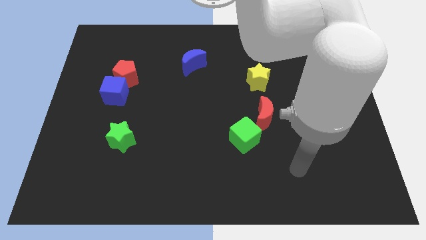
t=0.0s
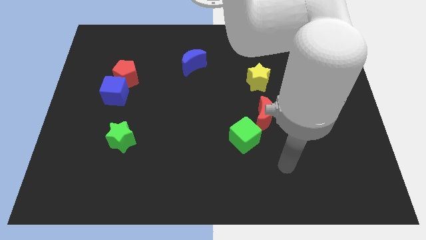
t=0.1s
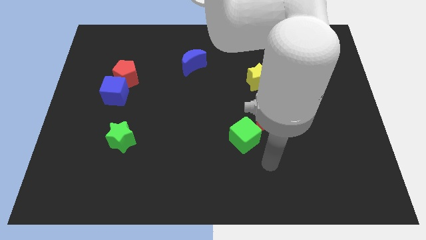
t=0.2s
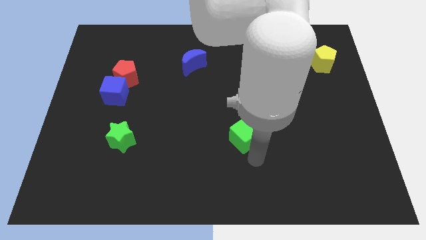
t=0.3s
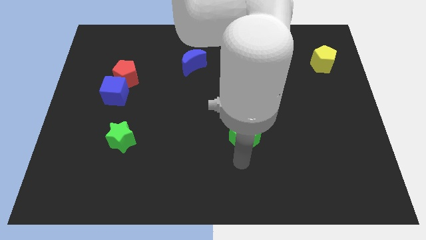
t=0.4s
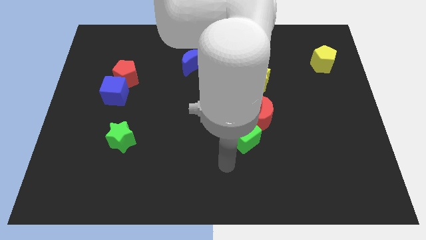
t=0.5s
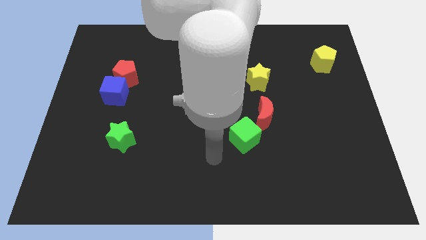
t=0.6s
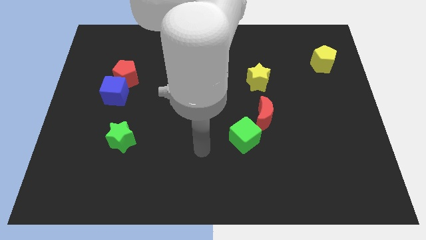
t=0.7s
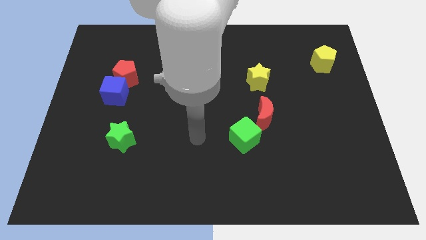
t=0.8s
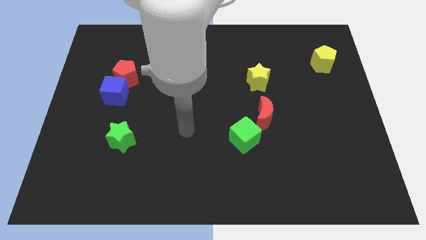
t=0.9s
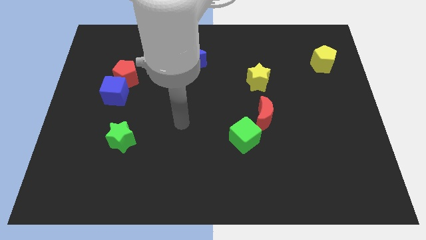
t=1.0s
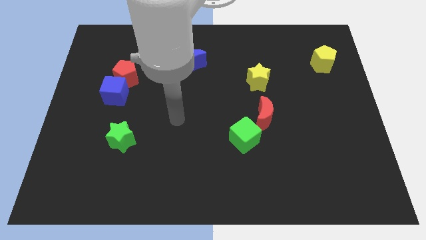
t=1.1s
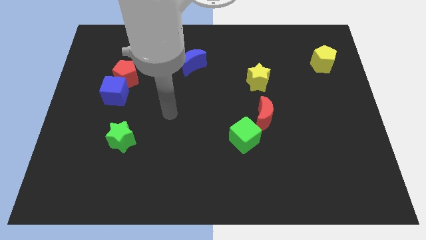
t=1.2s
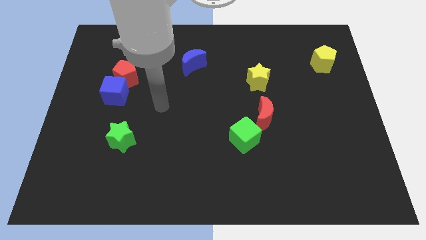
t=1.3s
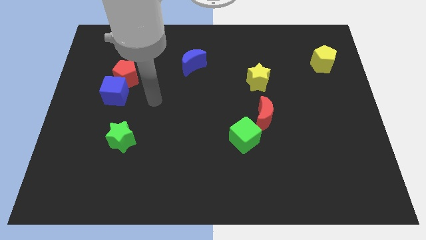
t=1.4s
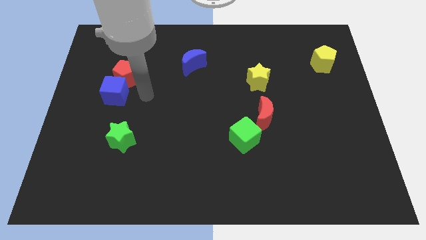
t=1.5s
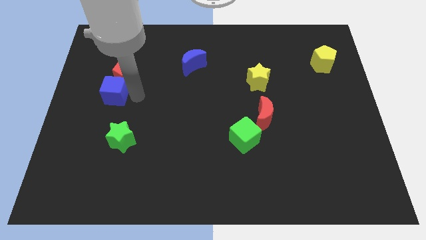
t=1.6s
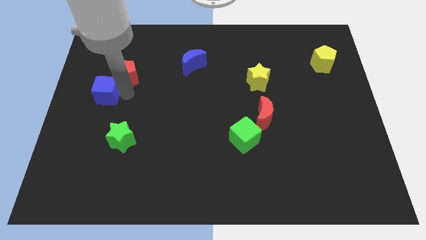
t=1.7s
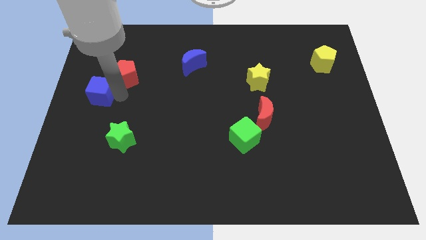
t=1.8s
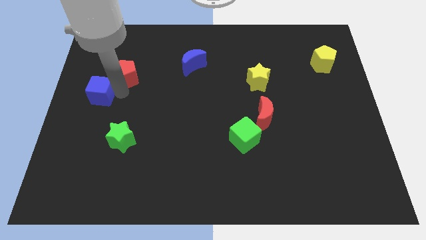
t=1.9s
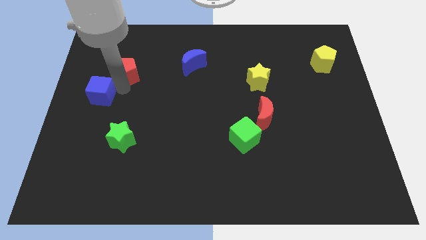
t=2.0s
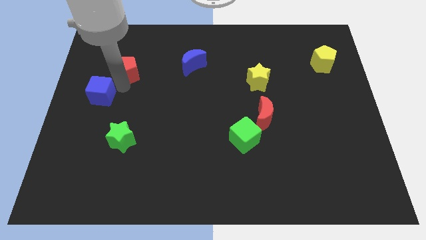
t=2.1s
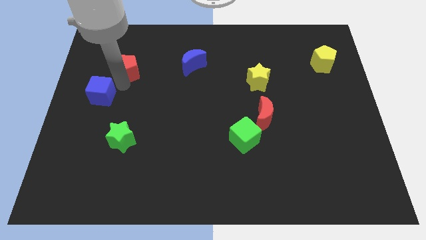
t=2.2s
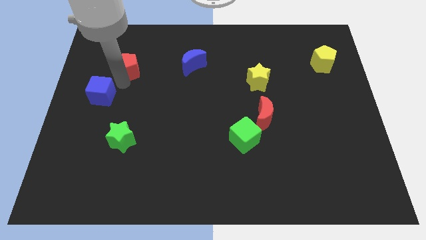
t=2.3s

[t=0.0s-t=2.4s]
move the red pentagon away from the blue cube

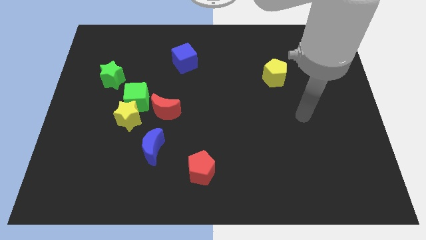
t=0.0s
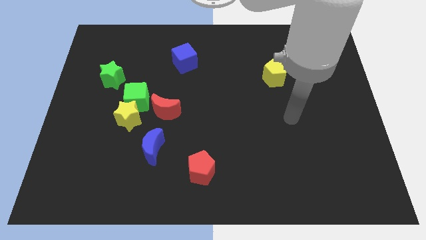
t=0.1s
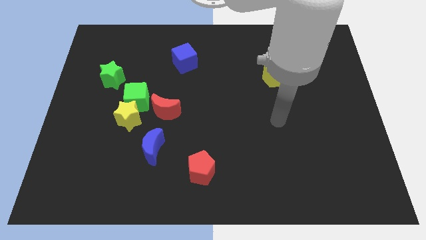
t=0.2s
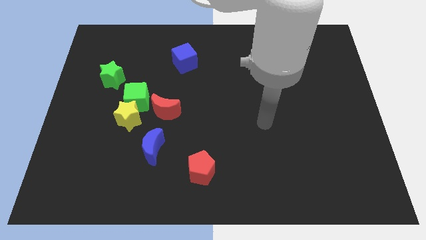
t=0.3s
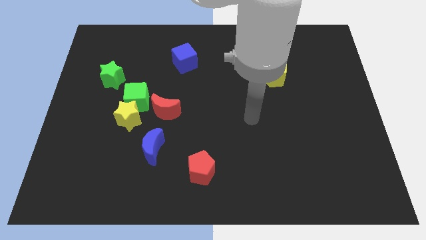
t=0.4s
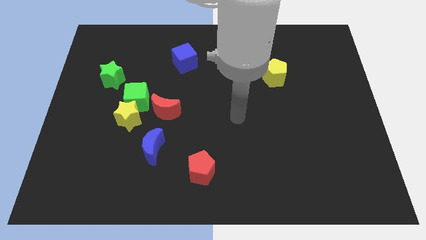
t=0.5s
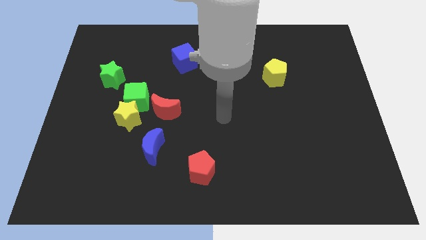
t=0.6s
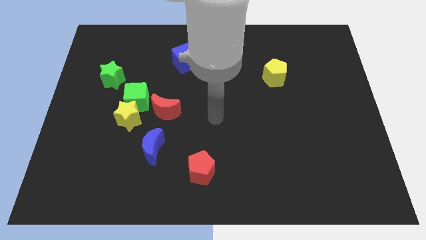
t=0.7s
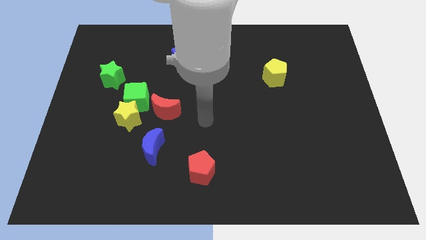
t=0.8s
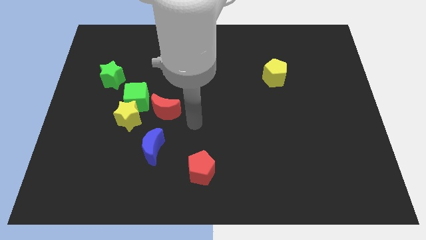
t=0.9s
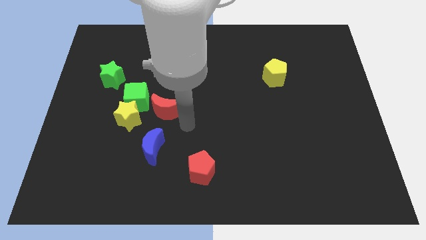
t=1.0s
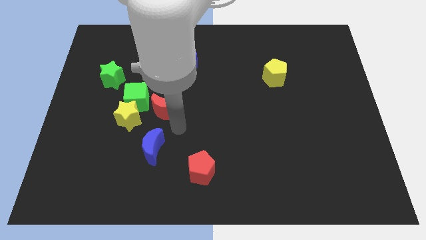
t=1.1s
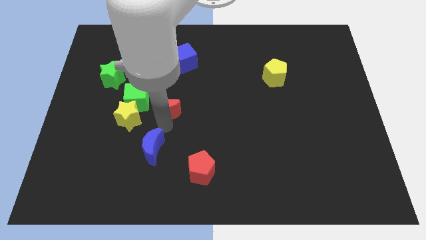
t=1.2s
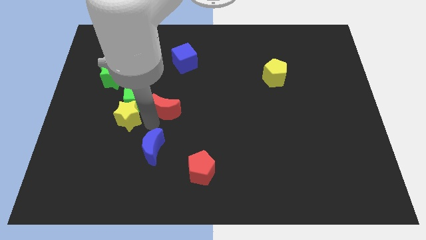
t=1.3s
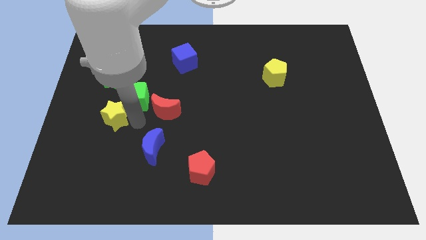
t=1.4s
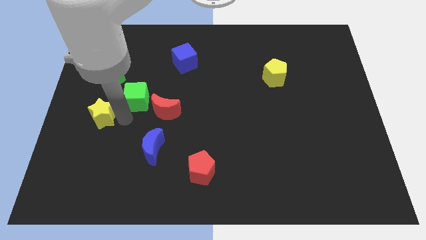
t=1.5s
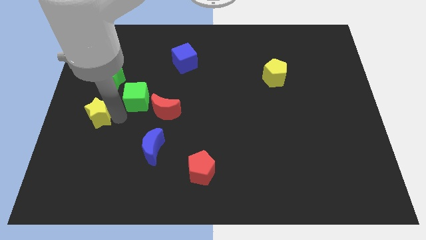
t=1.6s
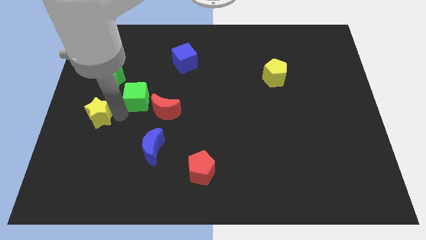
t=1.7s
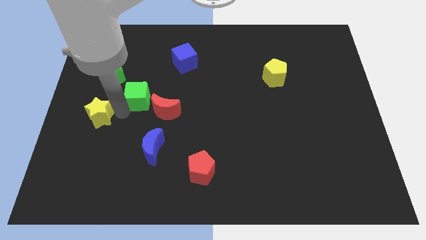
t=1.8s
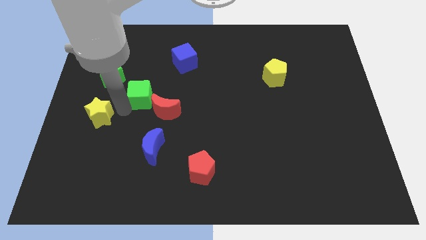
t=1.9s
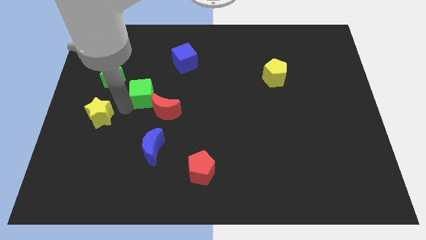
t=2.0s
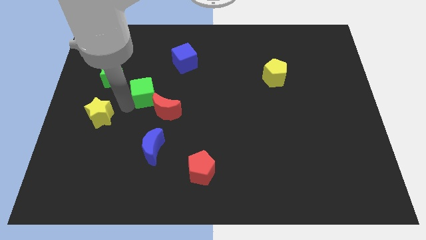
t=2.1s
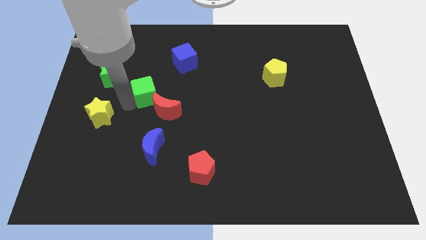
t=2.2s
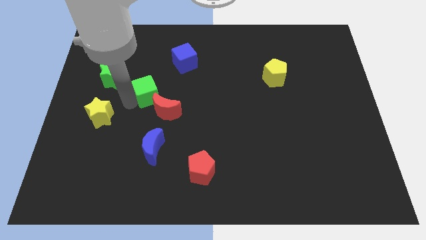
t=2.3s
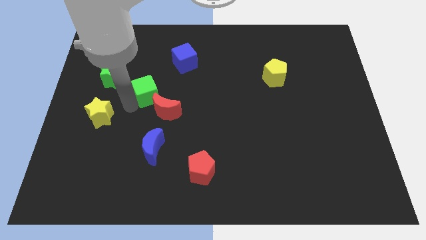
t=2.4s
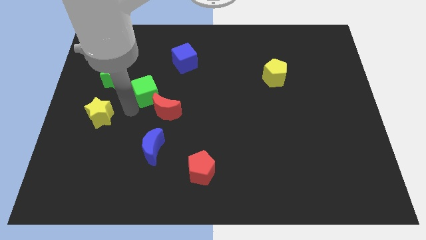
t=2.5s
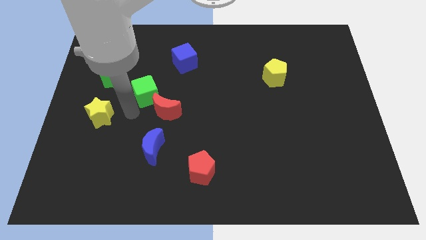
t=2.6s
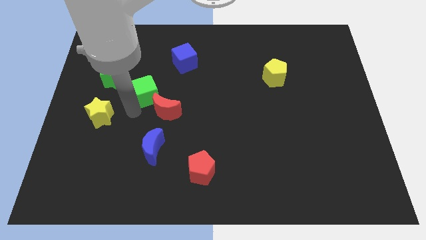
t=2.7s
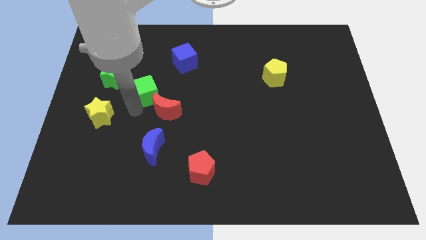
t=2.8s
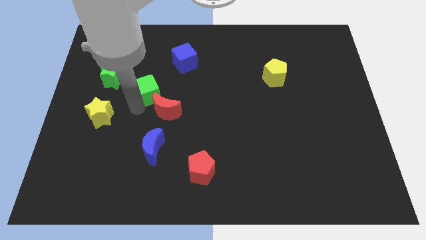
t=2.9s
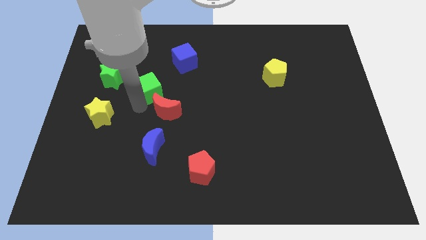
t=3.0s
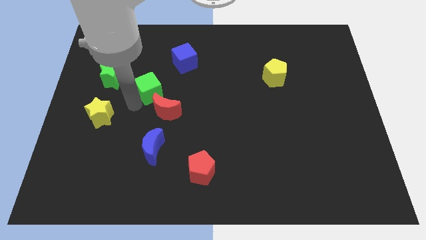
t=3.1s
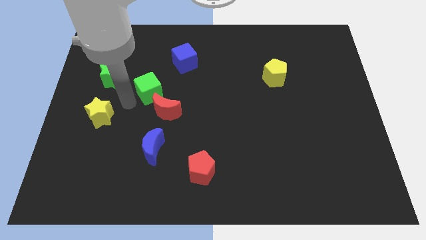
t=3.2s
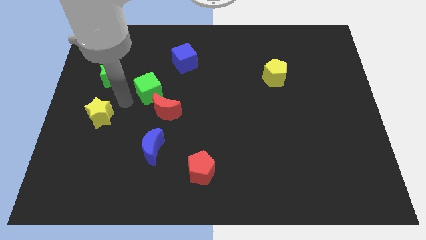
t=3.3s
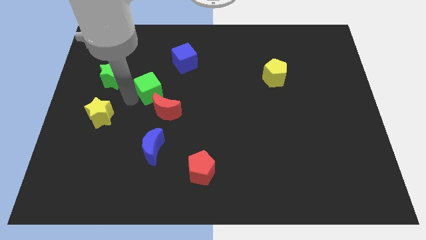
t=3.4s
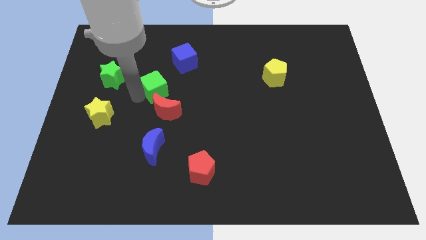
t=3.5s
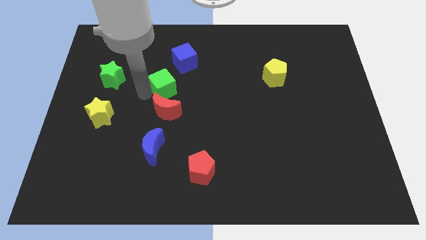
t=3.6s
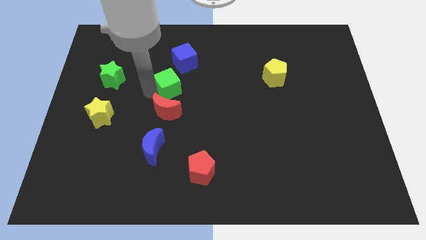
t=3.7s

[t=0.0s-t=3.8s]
separate the green cube from the yellow star, red moon, and green star

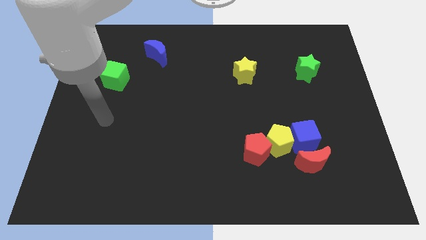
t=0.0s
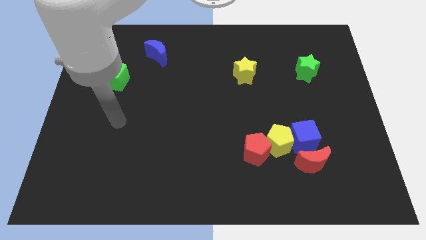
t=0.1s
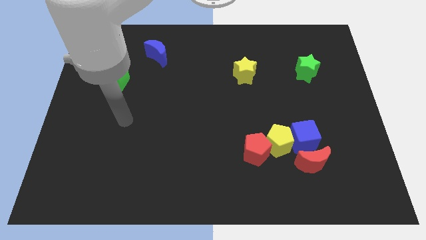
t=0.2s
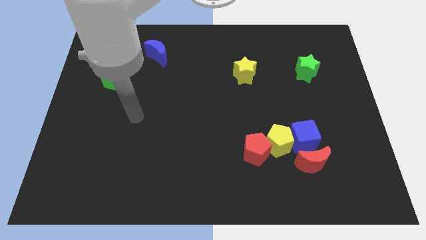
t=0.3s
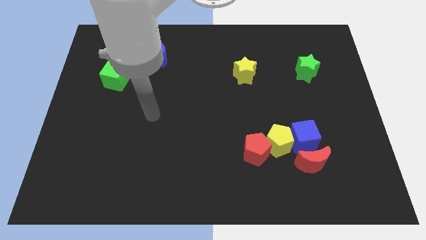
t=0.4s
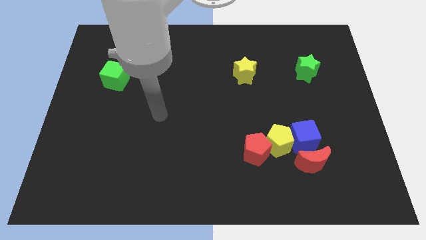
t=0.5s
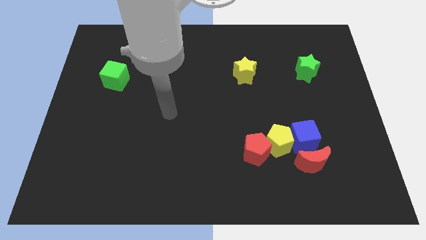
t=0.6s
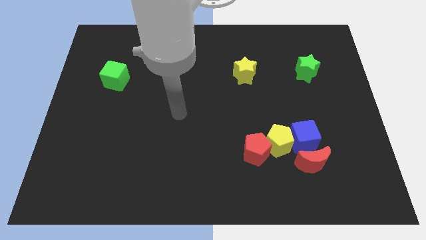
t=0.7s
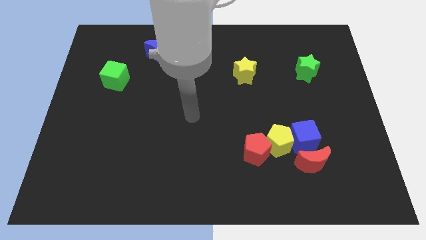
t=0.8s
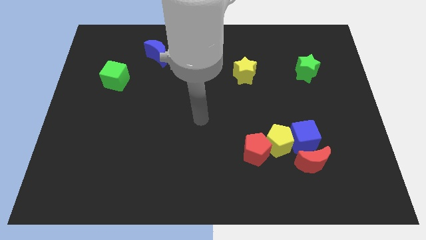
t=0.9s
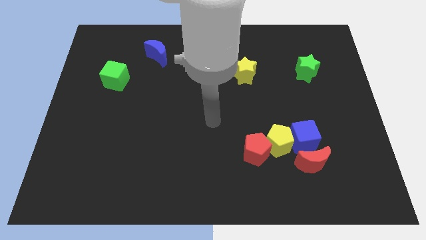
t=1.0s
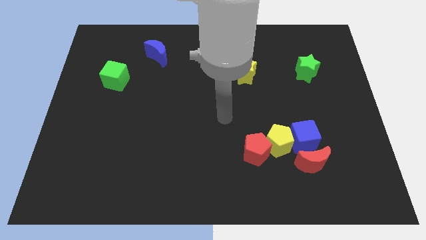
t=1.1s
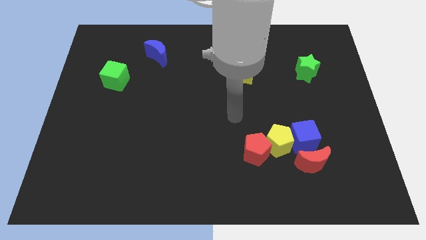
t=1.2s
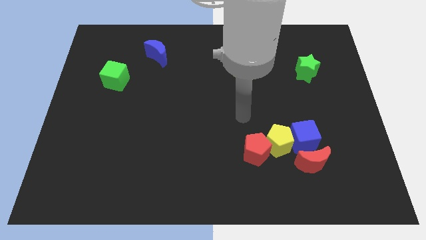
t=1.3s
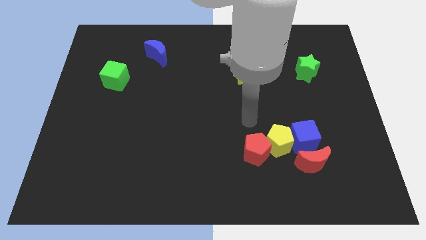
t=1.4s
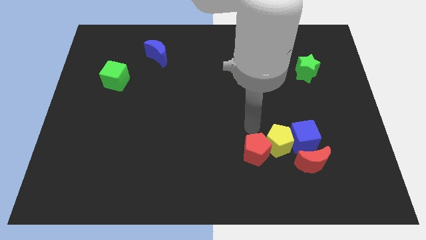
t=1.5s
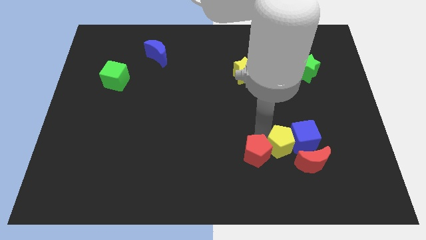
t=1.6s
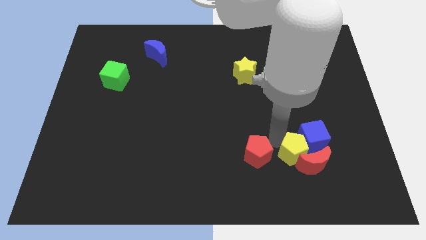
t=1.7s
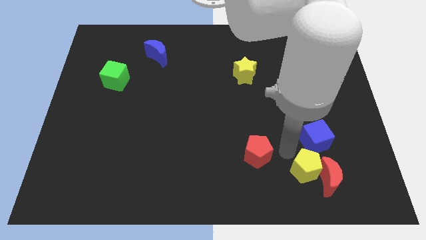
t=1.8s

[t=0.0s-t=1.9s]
separate the red pentagon from the yellow pentagon

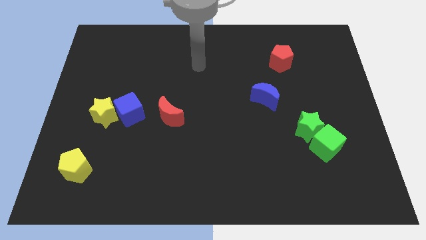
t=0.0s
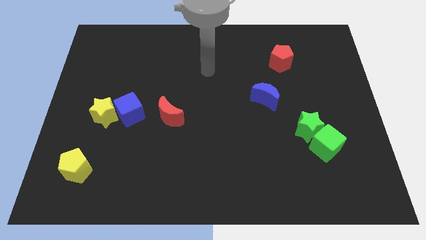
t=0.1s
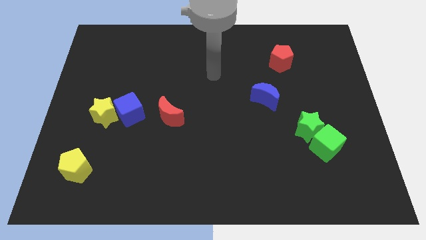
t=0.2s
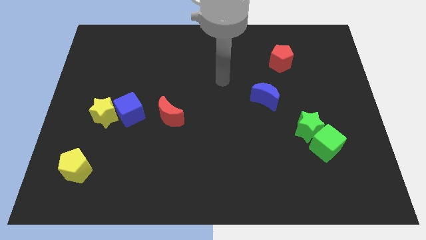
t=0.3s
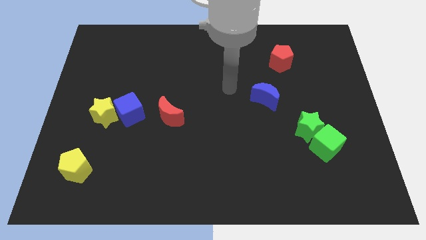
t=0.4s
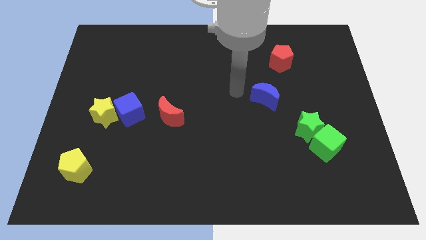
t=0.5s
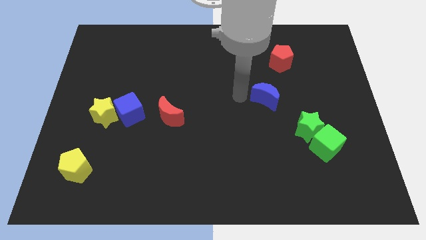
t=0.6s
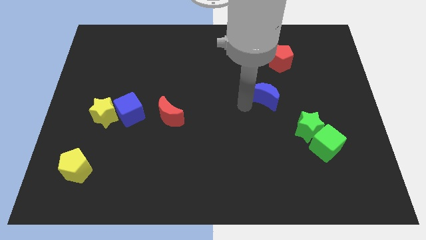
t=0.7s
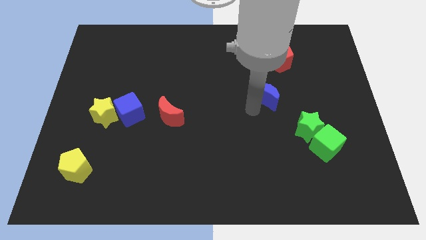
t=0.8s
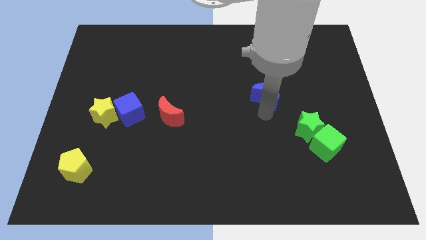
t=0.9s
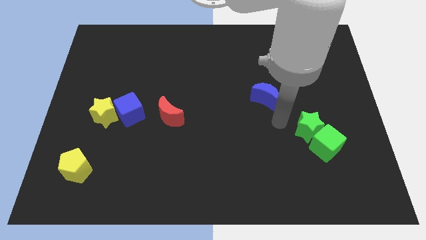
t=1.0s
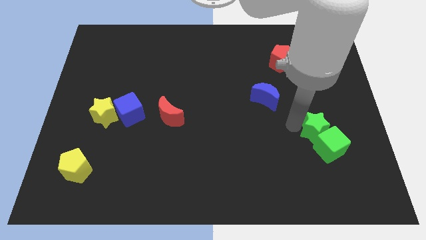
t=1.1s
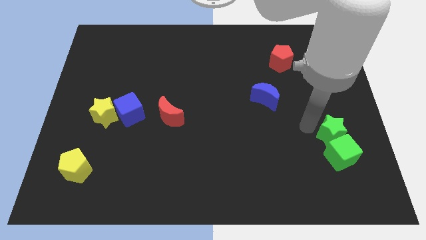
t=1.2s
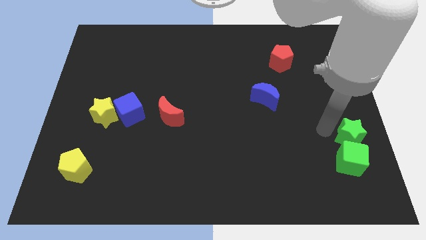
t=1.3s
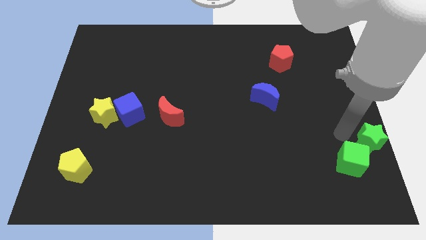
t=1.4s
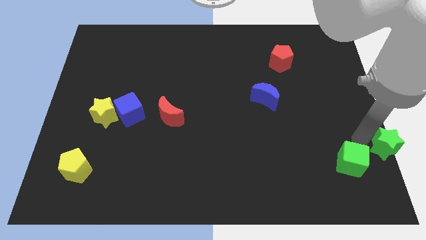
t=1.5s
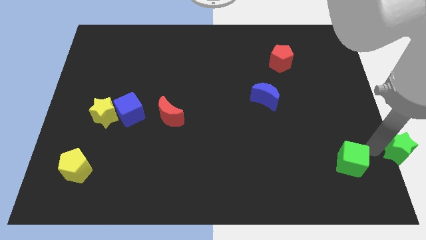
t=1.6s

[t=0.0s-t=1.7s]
separate the green cube from the green star
